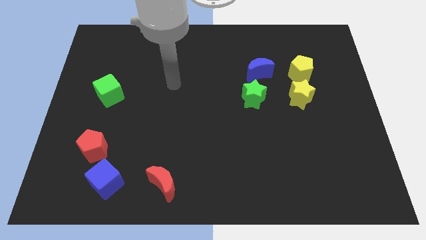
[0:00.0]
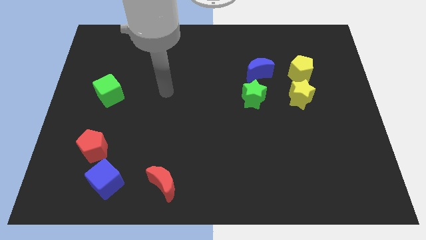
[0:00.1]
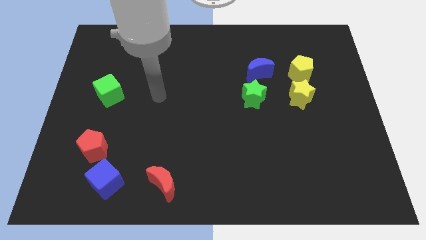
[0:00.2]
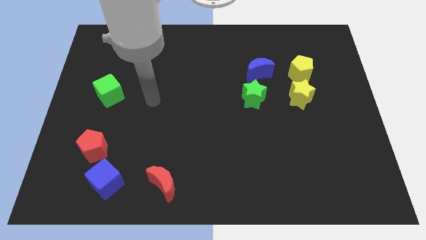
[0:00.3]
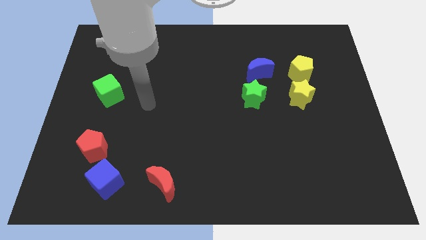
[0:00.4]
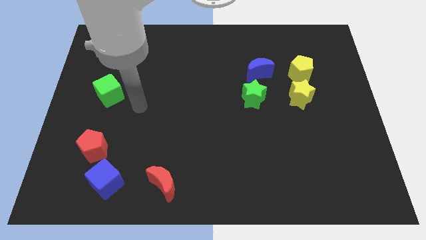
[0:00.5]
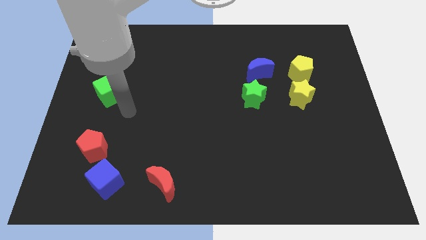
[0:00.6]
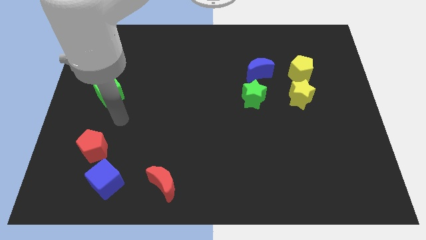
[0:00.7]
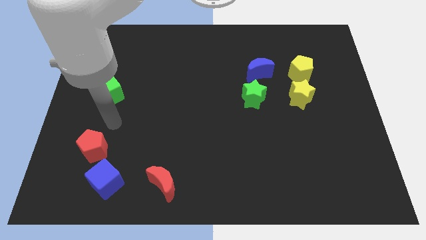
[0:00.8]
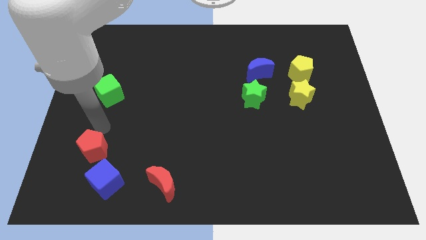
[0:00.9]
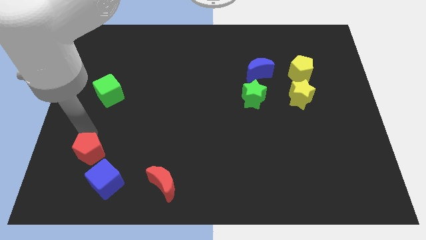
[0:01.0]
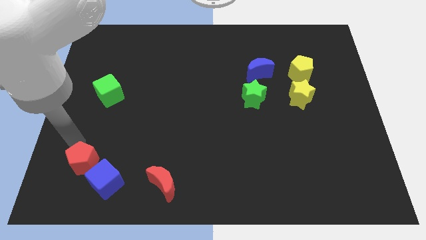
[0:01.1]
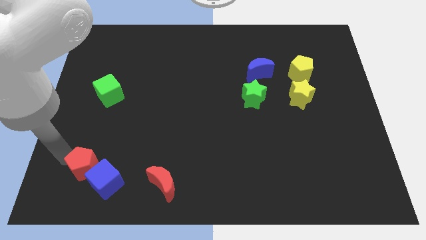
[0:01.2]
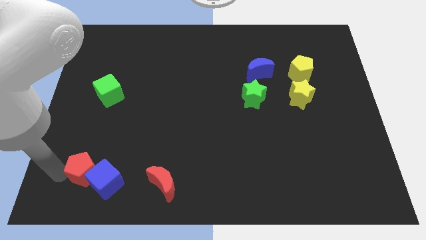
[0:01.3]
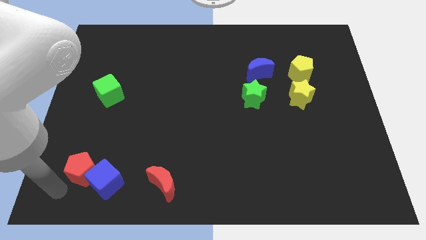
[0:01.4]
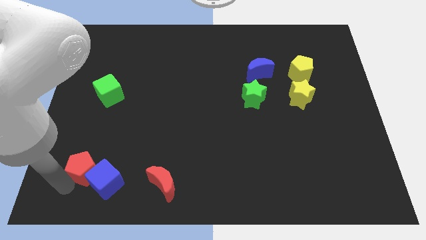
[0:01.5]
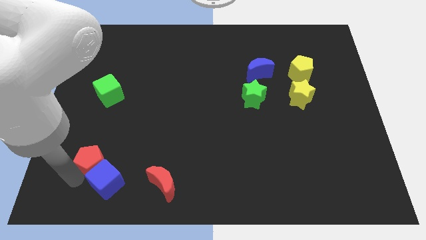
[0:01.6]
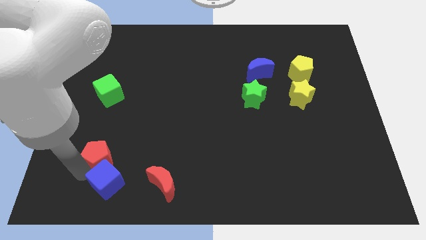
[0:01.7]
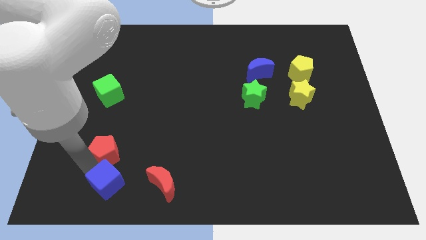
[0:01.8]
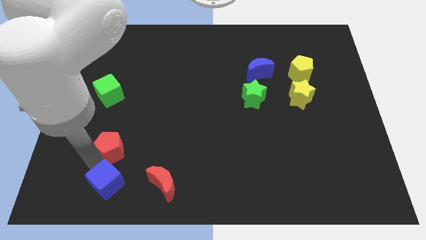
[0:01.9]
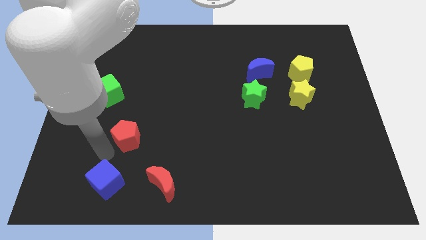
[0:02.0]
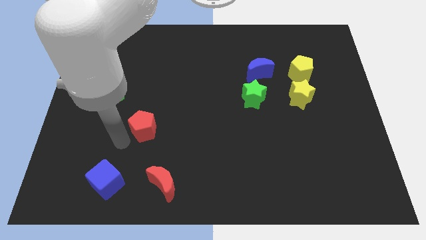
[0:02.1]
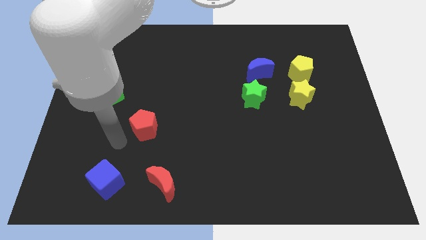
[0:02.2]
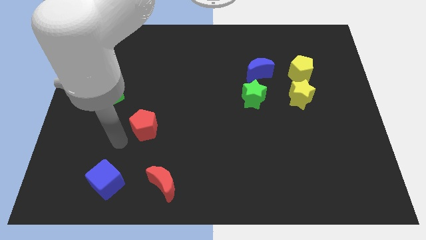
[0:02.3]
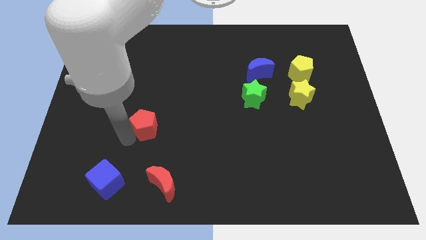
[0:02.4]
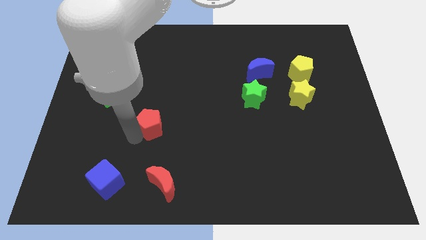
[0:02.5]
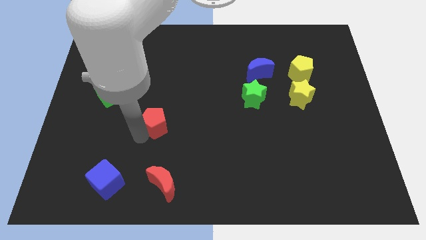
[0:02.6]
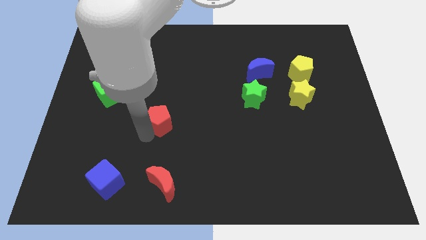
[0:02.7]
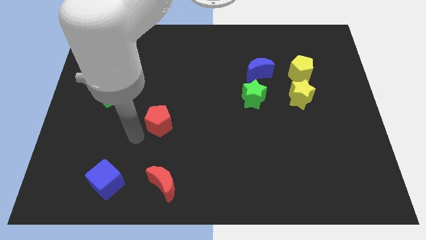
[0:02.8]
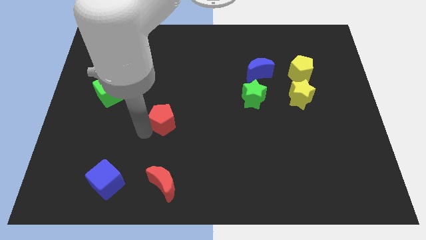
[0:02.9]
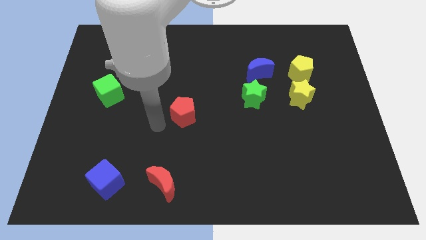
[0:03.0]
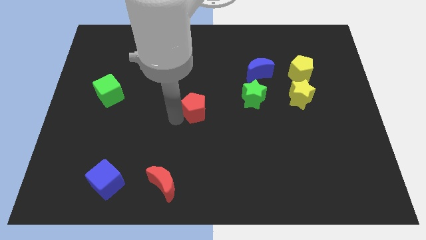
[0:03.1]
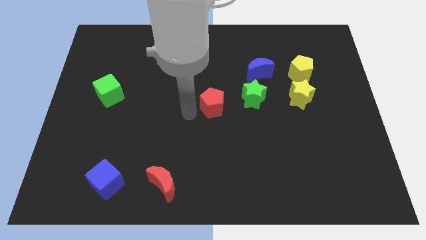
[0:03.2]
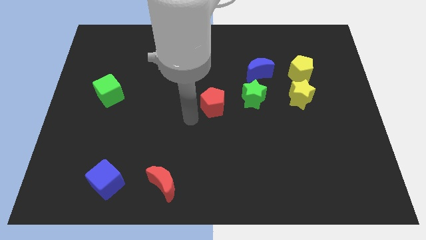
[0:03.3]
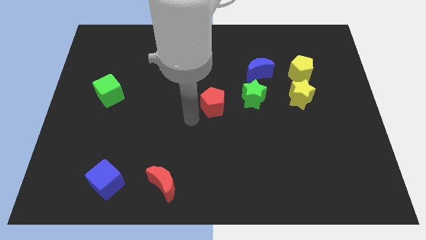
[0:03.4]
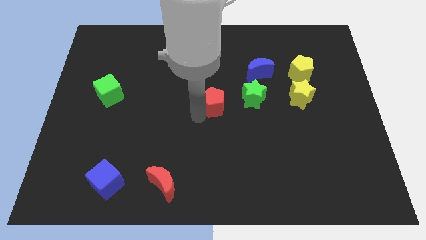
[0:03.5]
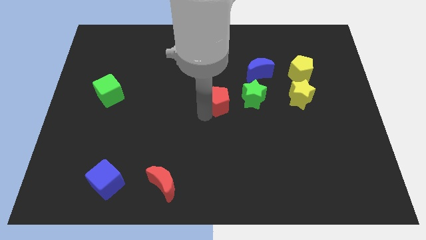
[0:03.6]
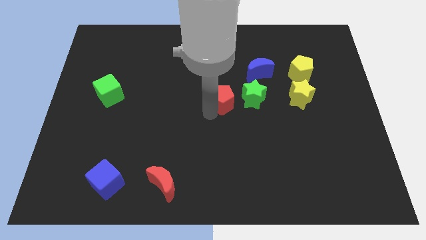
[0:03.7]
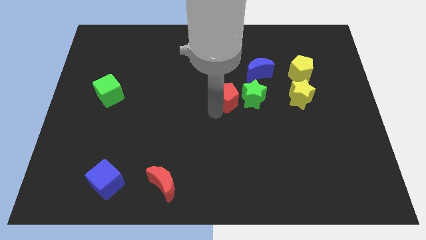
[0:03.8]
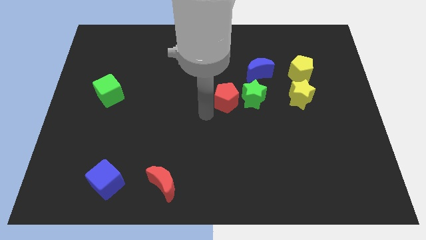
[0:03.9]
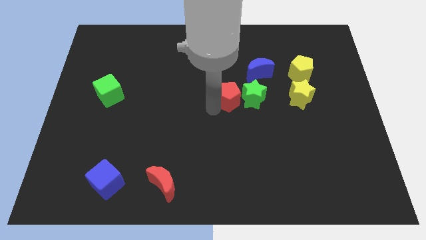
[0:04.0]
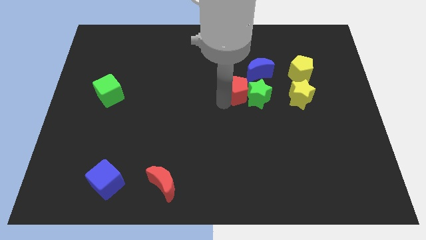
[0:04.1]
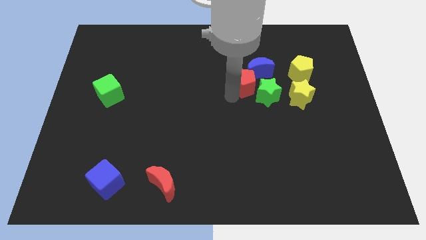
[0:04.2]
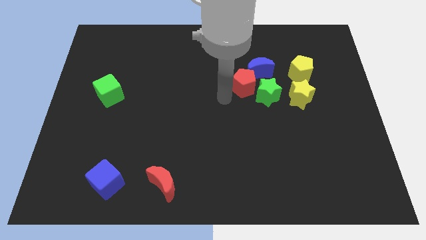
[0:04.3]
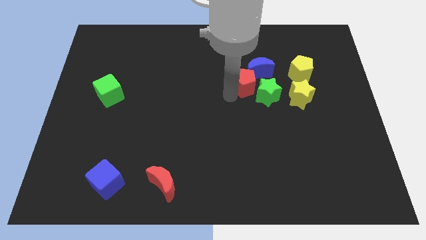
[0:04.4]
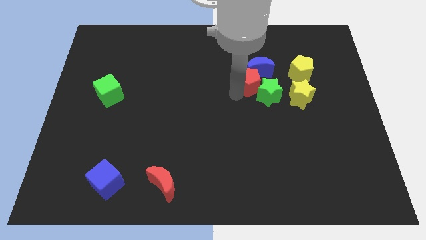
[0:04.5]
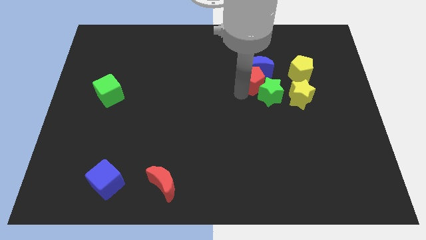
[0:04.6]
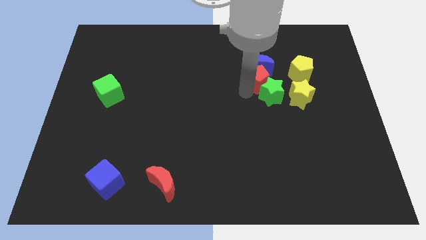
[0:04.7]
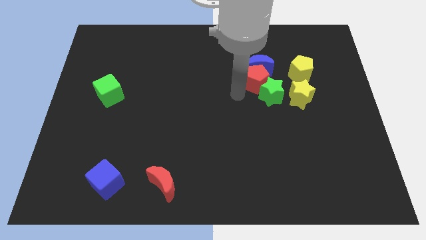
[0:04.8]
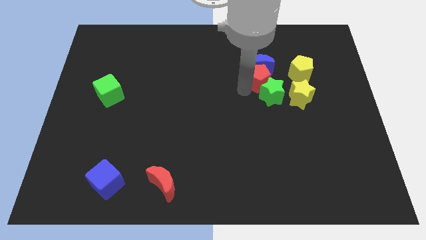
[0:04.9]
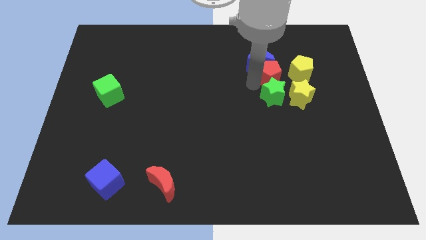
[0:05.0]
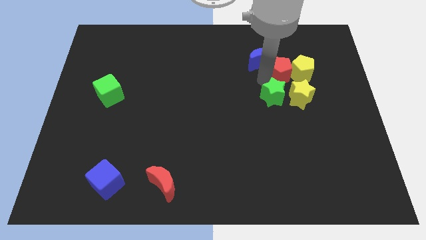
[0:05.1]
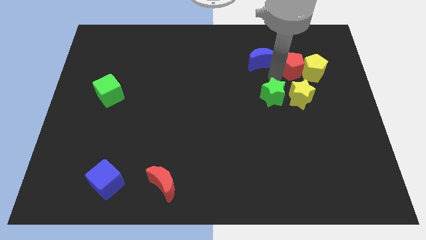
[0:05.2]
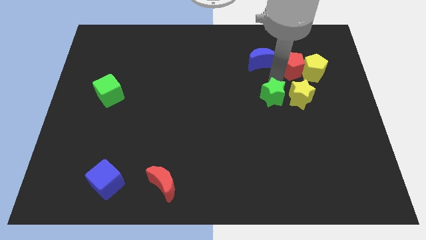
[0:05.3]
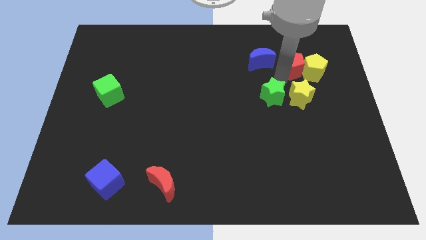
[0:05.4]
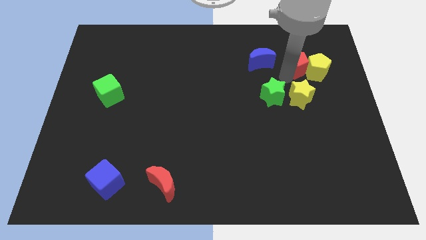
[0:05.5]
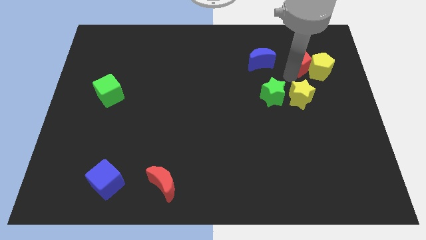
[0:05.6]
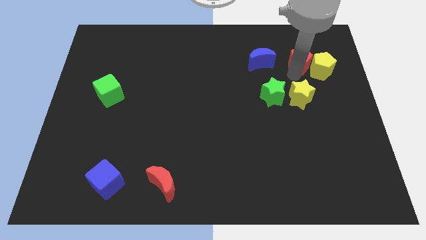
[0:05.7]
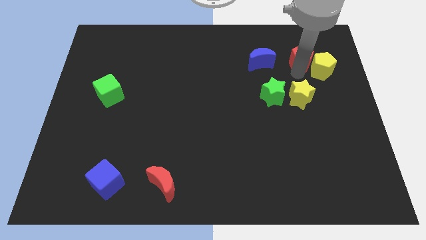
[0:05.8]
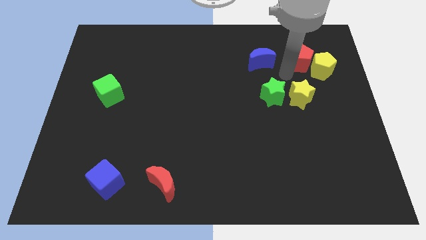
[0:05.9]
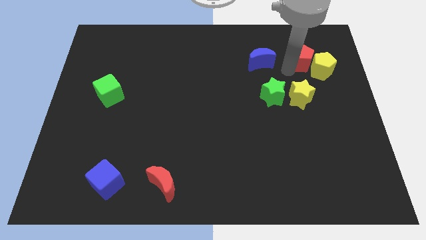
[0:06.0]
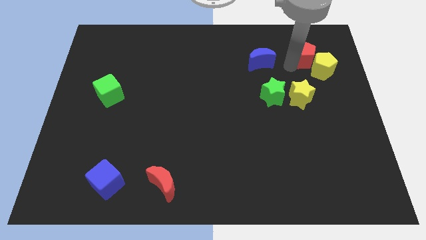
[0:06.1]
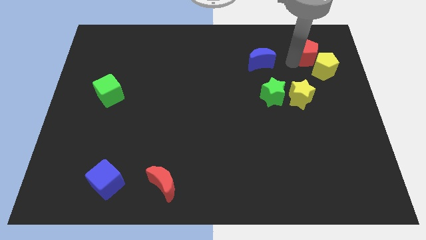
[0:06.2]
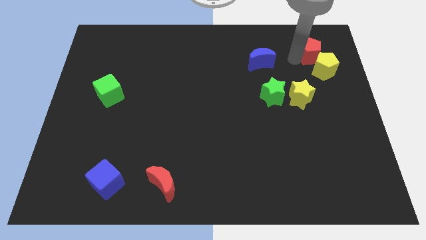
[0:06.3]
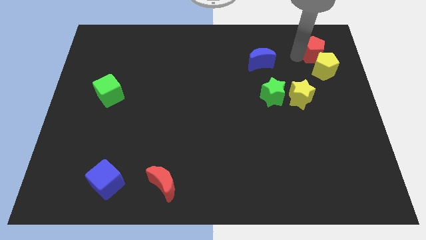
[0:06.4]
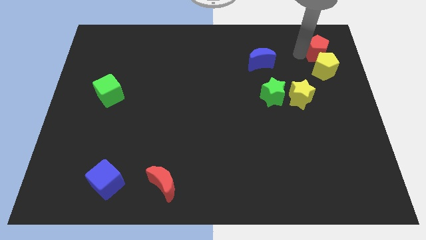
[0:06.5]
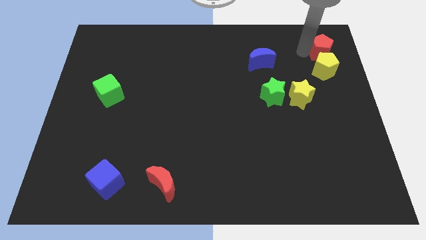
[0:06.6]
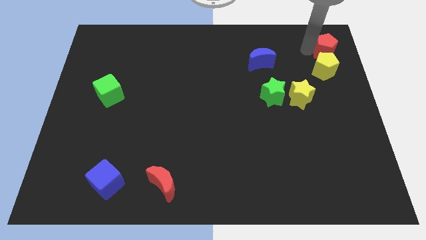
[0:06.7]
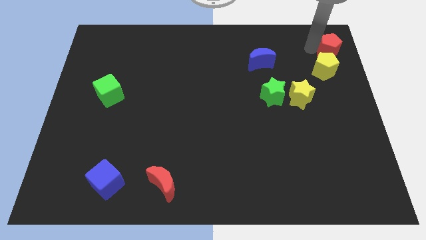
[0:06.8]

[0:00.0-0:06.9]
move the red pentagon to the upper right corner
